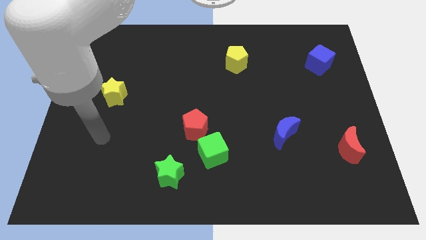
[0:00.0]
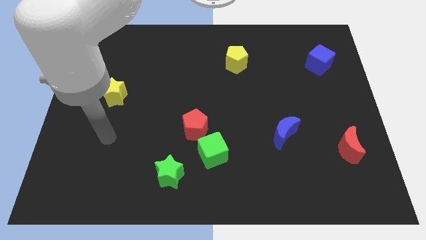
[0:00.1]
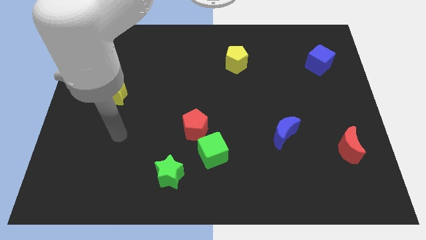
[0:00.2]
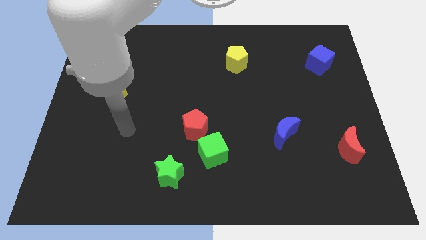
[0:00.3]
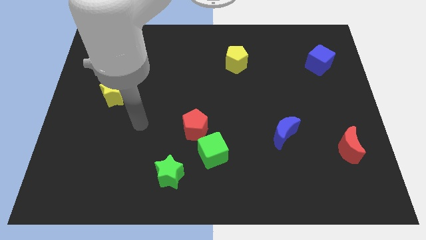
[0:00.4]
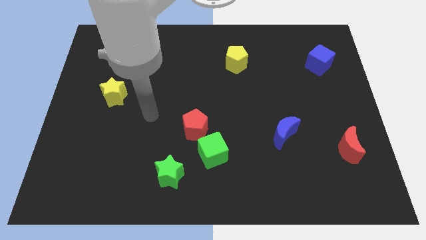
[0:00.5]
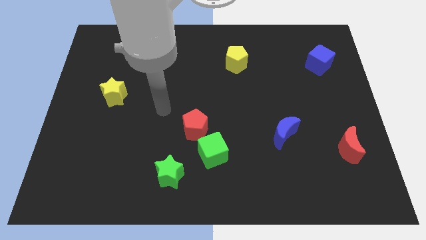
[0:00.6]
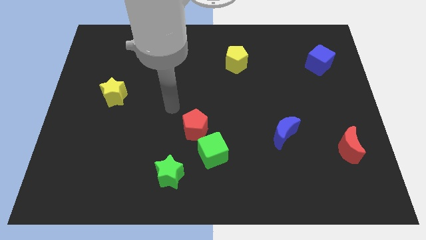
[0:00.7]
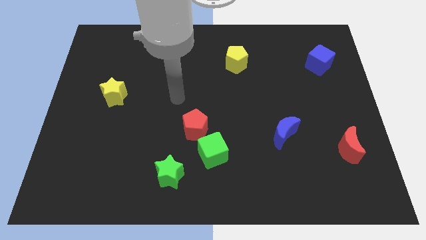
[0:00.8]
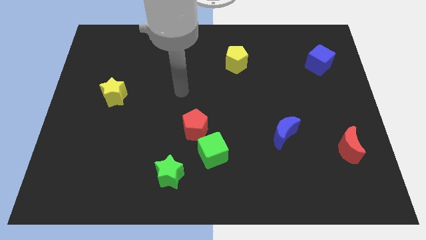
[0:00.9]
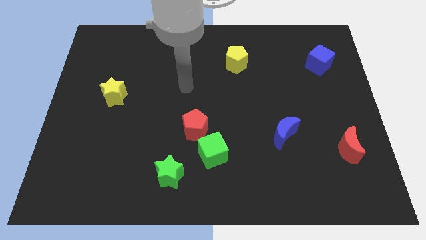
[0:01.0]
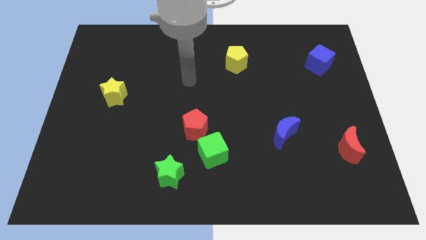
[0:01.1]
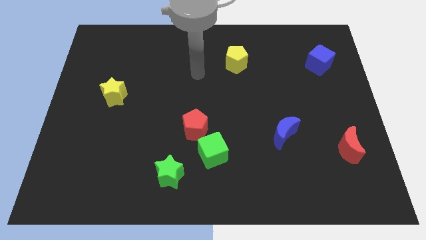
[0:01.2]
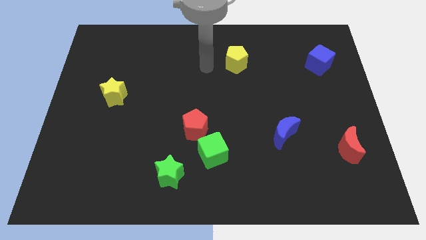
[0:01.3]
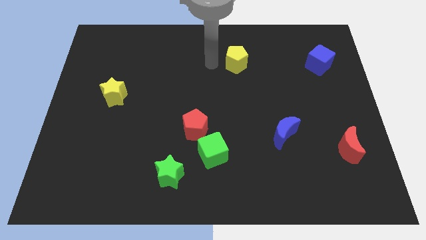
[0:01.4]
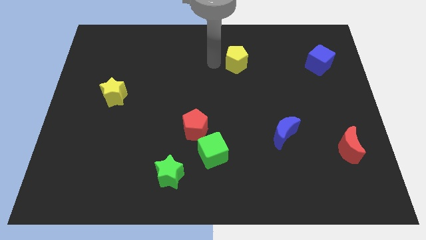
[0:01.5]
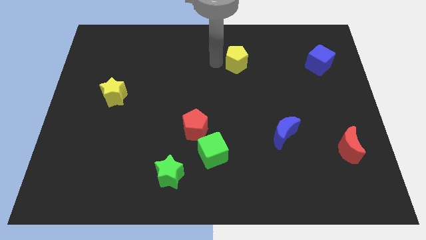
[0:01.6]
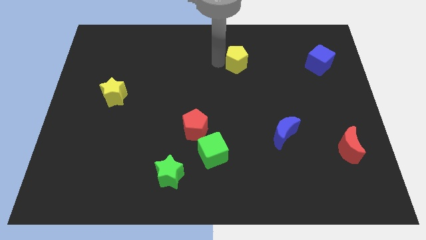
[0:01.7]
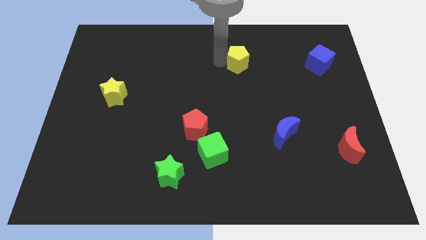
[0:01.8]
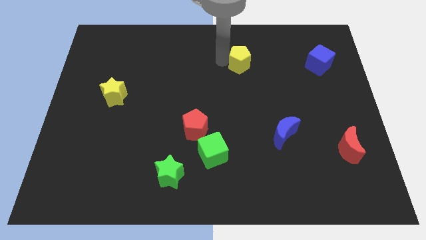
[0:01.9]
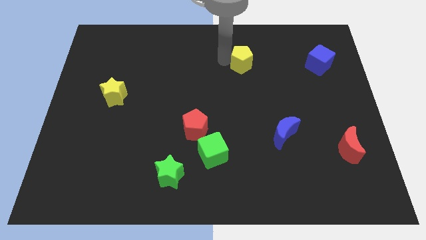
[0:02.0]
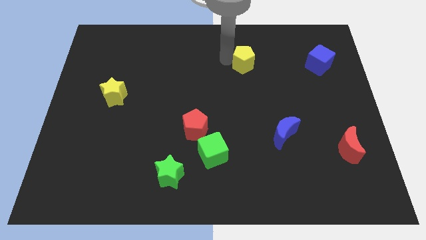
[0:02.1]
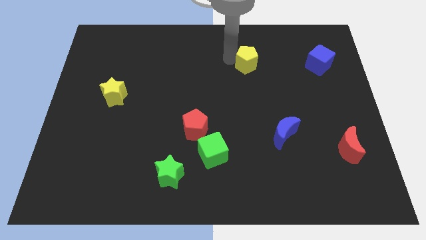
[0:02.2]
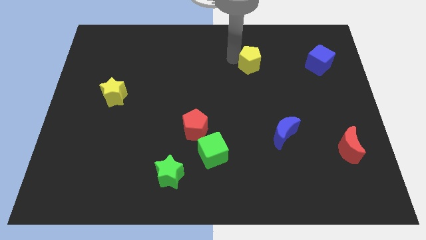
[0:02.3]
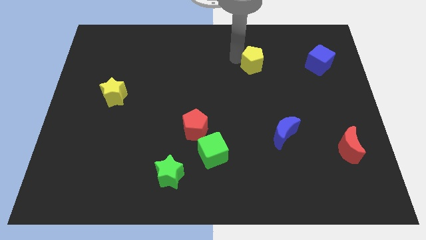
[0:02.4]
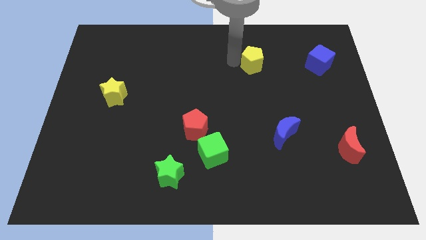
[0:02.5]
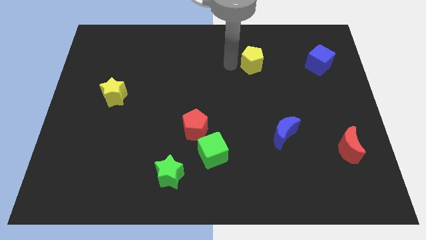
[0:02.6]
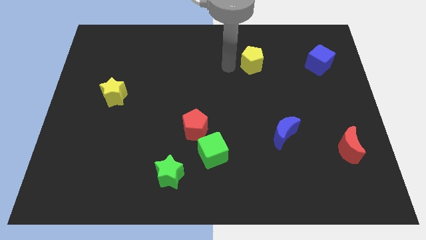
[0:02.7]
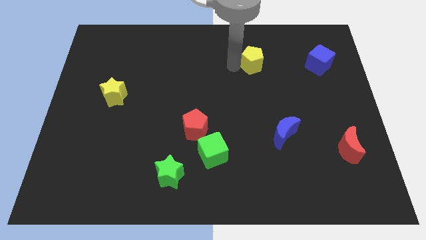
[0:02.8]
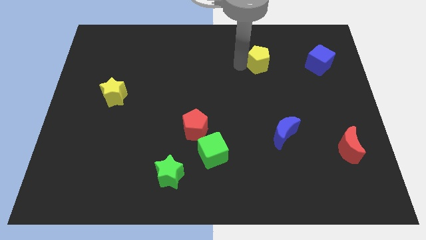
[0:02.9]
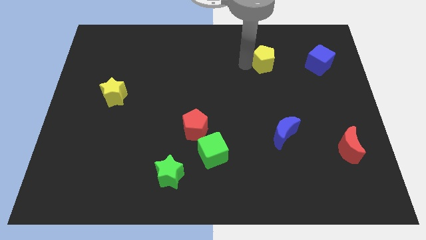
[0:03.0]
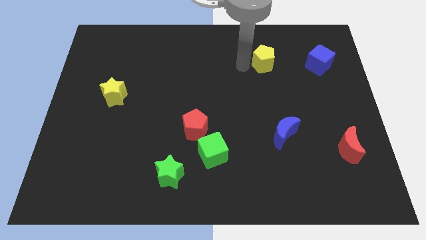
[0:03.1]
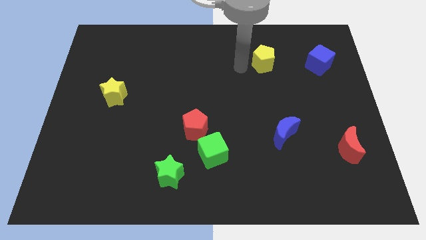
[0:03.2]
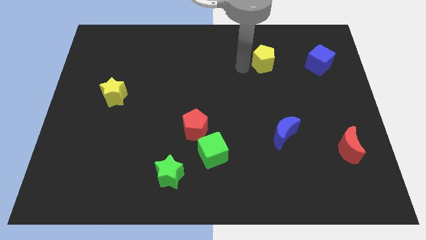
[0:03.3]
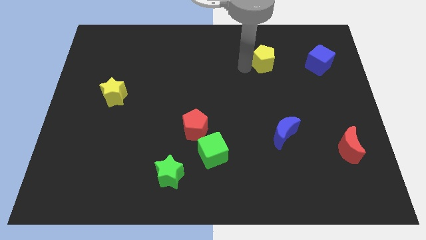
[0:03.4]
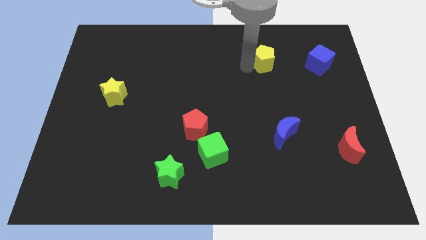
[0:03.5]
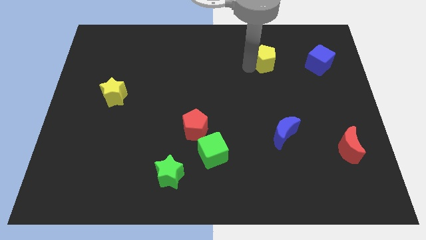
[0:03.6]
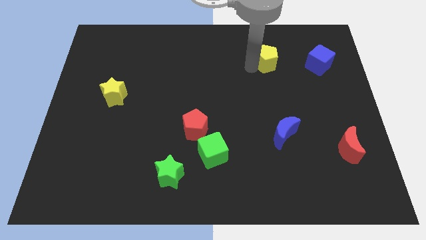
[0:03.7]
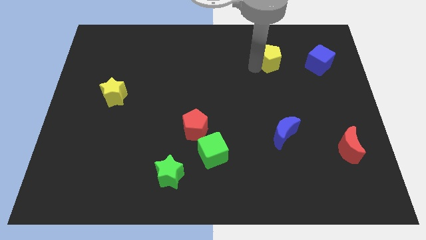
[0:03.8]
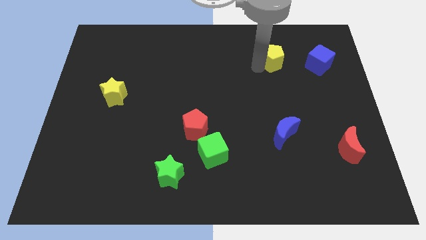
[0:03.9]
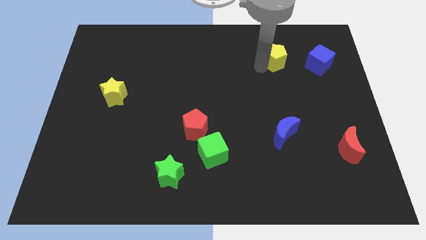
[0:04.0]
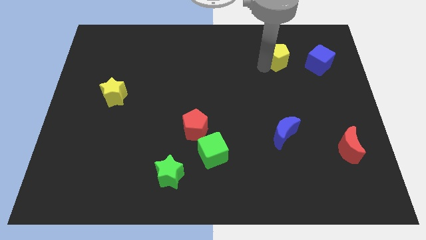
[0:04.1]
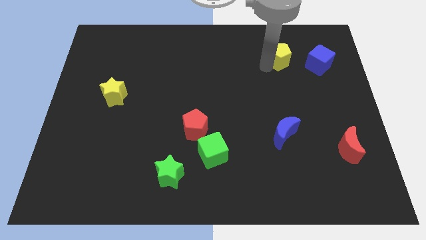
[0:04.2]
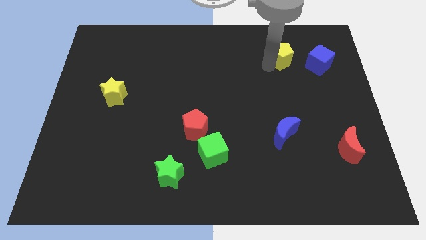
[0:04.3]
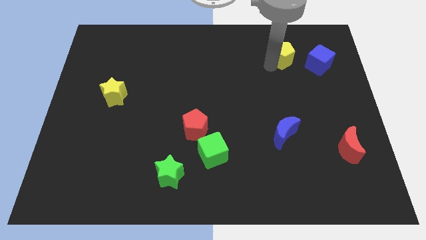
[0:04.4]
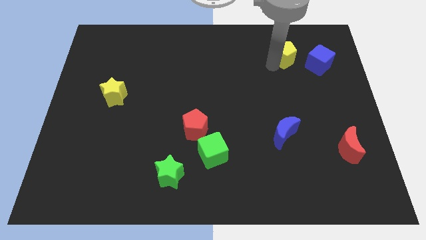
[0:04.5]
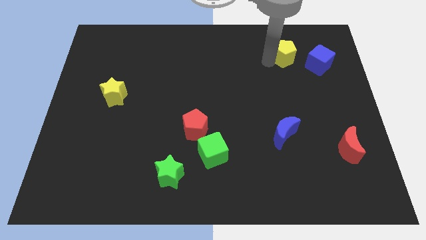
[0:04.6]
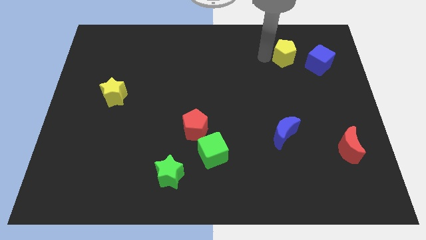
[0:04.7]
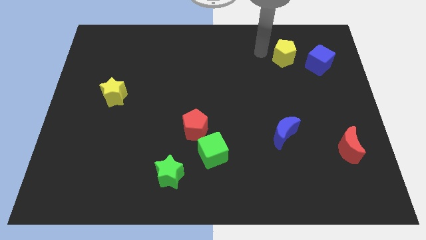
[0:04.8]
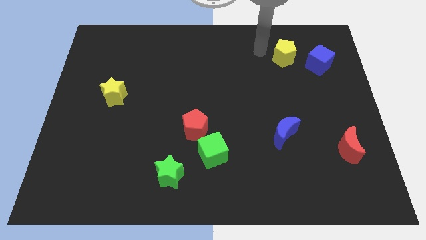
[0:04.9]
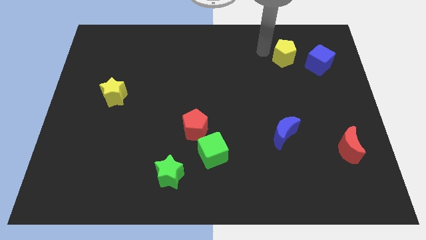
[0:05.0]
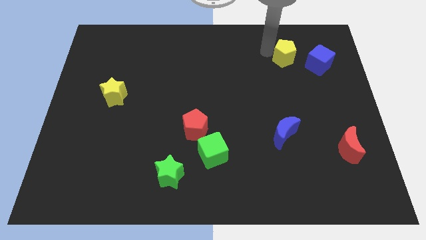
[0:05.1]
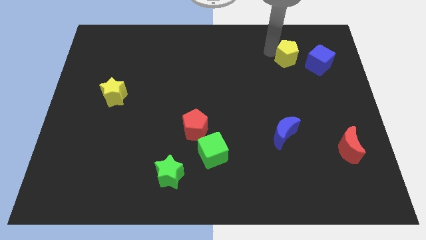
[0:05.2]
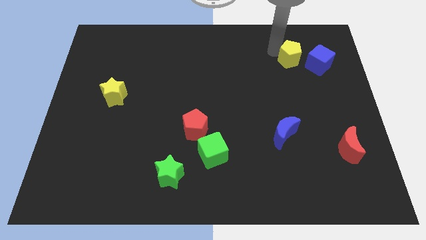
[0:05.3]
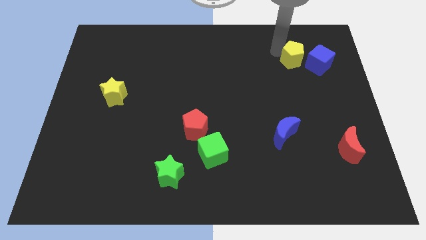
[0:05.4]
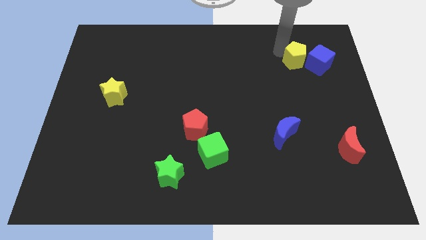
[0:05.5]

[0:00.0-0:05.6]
put the yellow pentagon to the blue cube

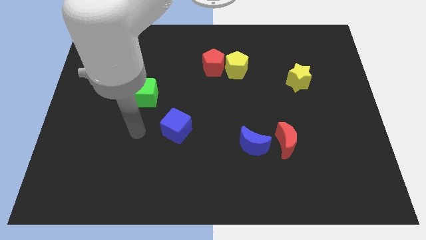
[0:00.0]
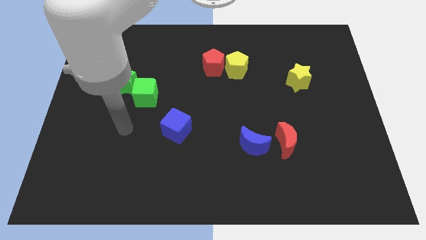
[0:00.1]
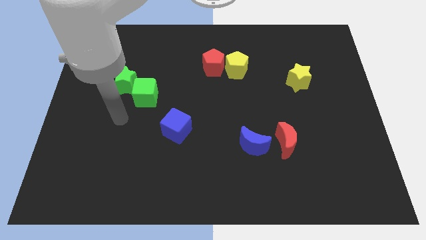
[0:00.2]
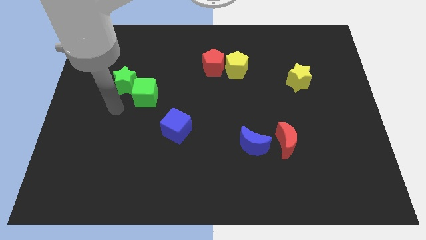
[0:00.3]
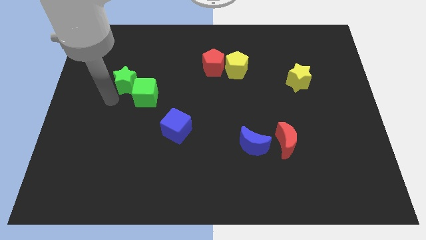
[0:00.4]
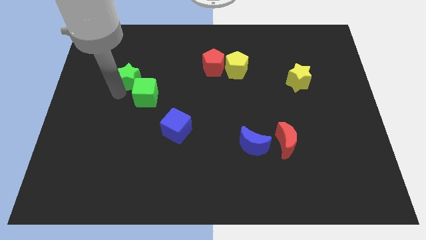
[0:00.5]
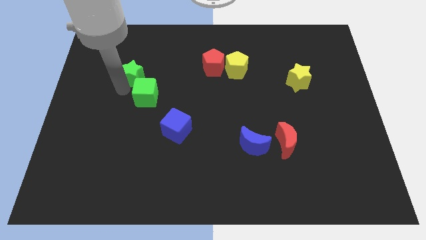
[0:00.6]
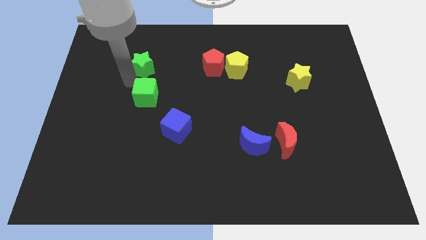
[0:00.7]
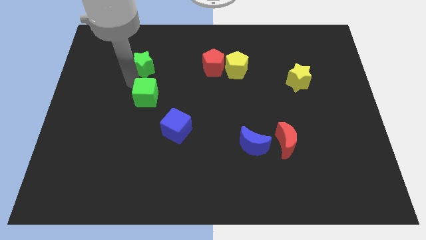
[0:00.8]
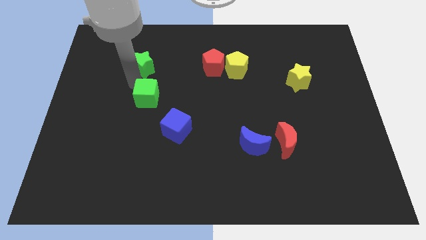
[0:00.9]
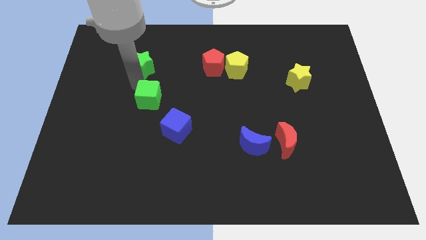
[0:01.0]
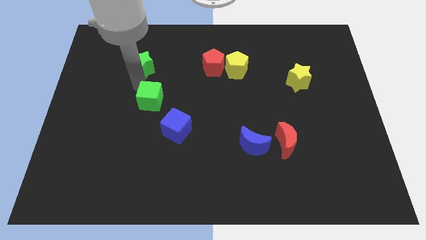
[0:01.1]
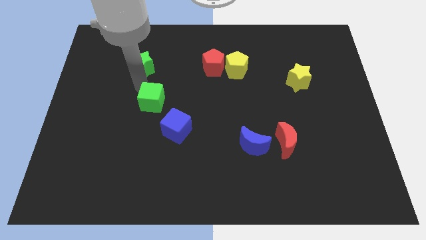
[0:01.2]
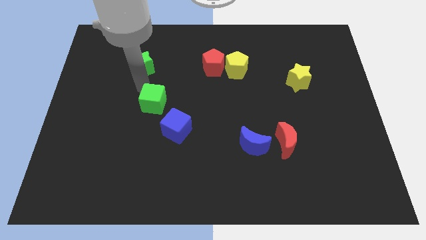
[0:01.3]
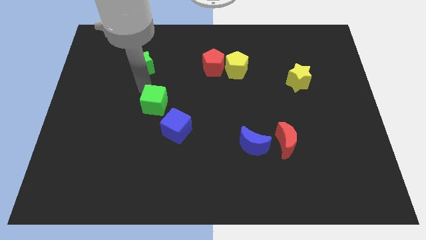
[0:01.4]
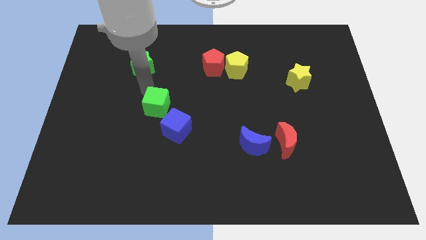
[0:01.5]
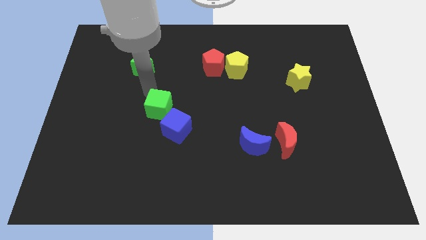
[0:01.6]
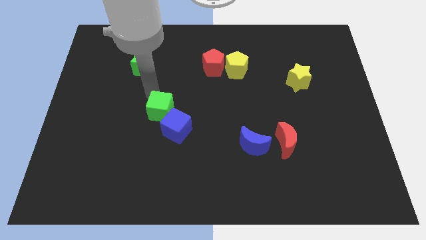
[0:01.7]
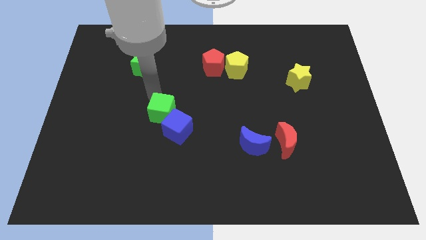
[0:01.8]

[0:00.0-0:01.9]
move the green cube close to the blue cube
